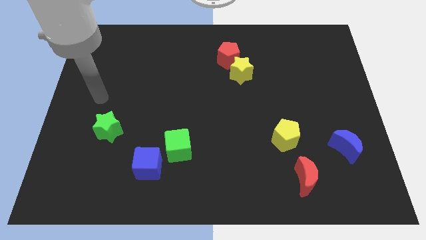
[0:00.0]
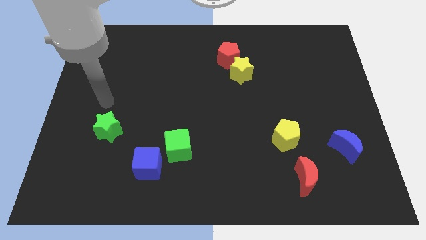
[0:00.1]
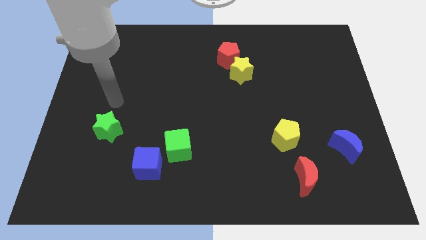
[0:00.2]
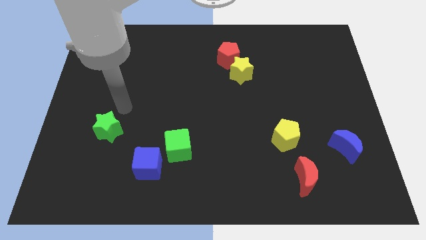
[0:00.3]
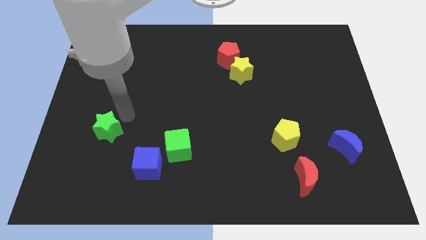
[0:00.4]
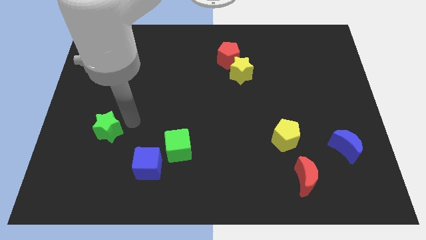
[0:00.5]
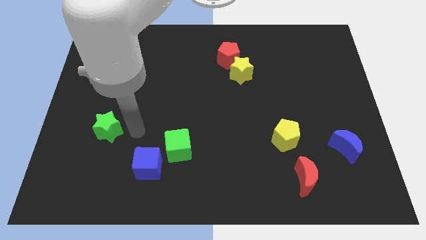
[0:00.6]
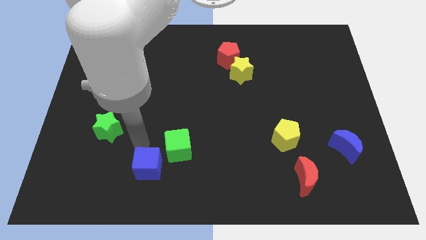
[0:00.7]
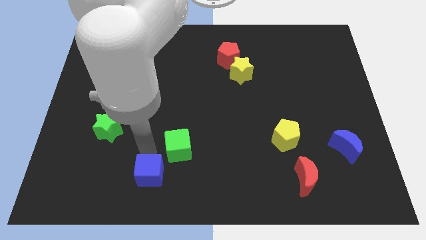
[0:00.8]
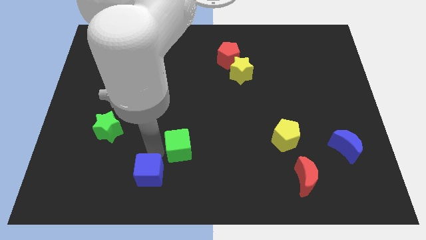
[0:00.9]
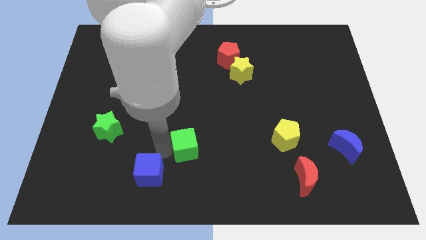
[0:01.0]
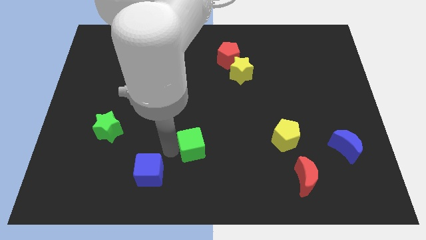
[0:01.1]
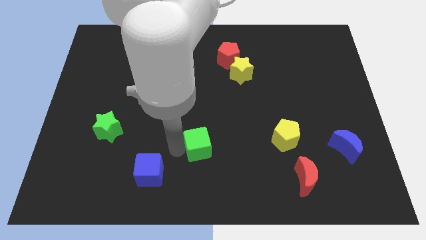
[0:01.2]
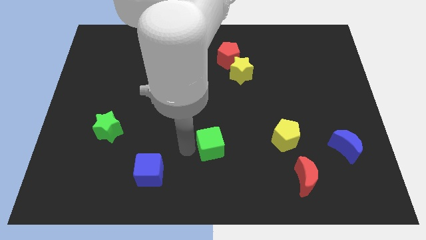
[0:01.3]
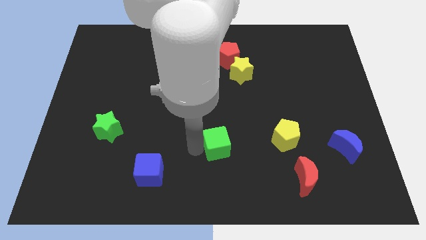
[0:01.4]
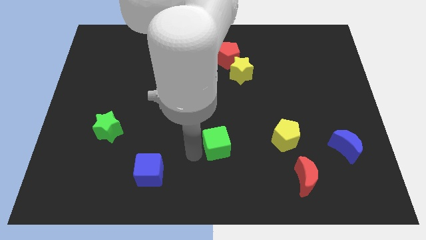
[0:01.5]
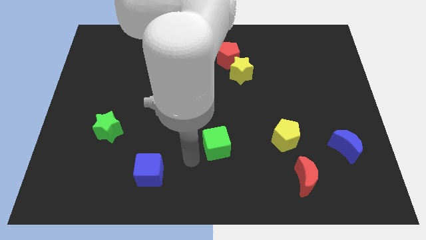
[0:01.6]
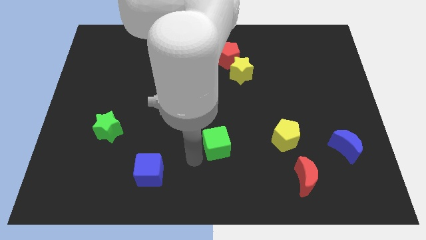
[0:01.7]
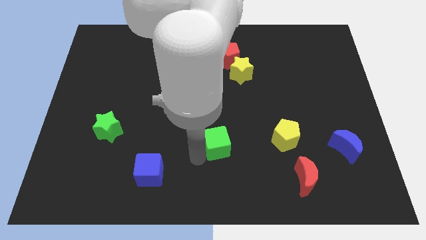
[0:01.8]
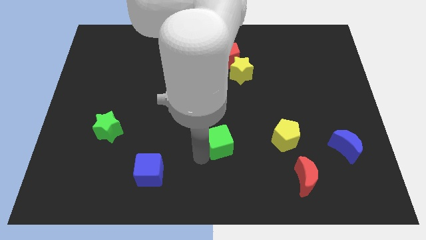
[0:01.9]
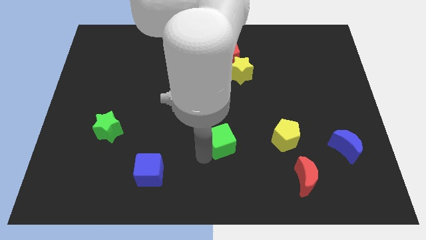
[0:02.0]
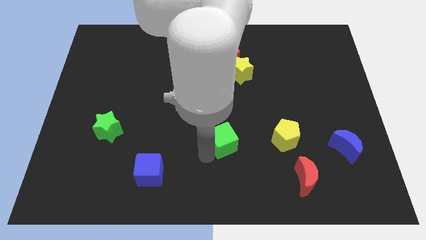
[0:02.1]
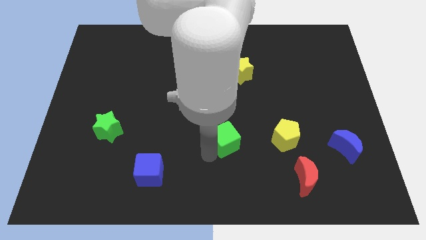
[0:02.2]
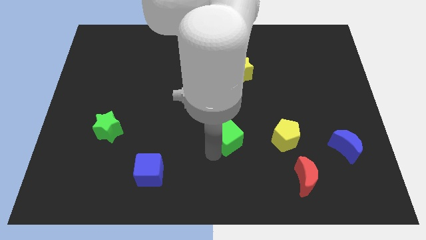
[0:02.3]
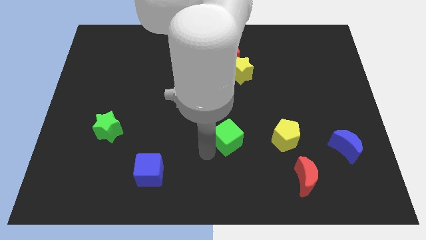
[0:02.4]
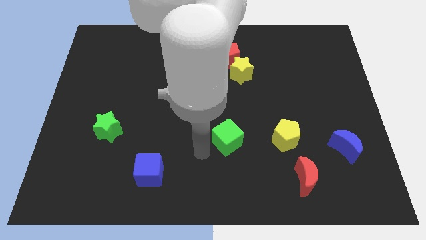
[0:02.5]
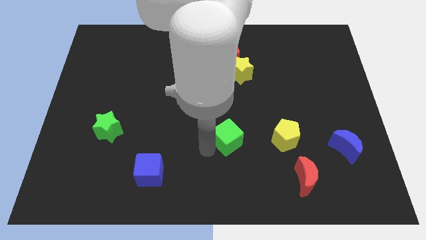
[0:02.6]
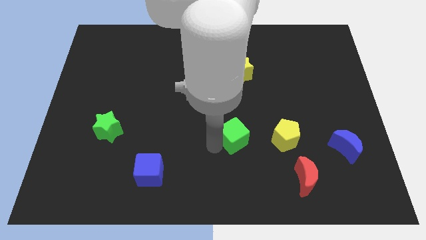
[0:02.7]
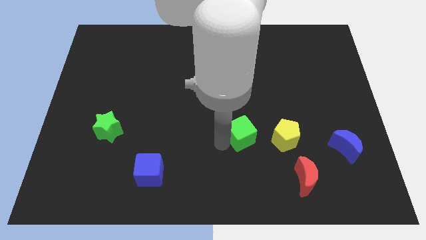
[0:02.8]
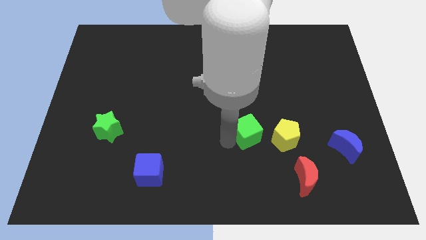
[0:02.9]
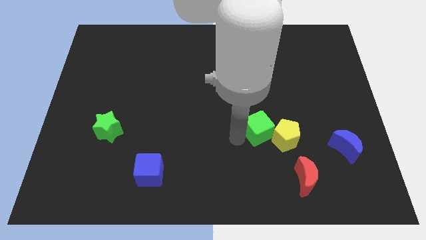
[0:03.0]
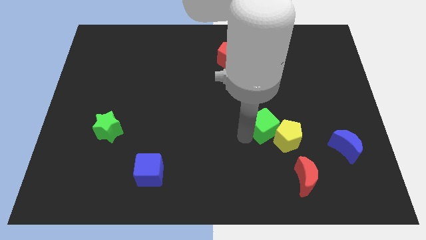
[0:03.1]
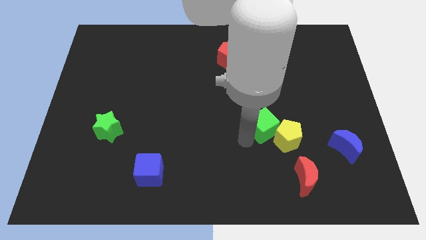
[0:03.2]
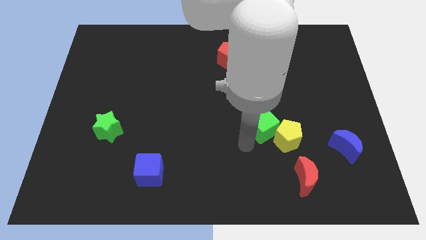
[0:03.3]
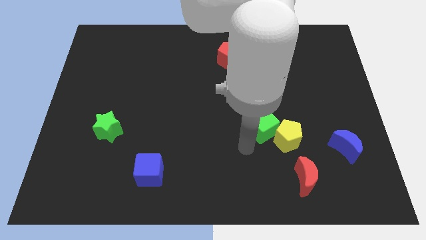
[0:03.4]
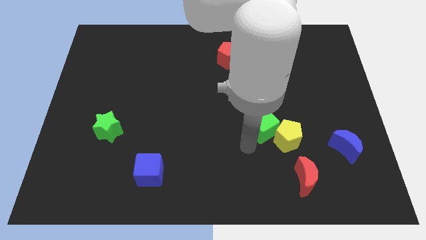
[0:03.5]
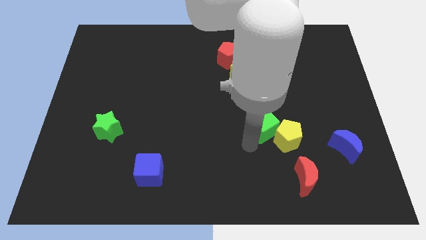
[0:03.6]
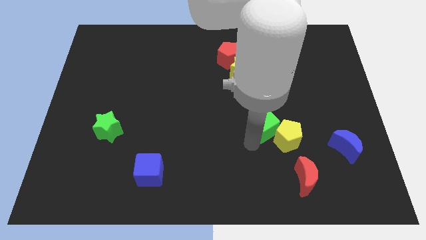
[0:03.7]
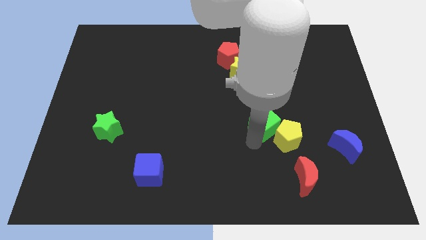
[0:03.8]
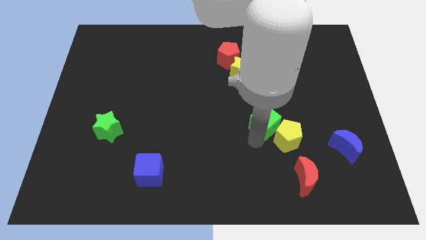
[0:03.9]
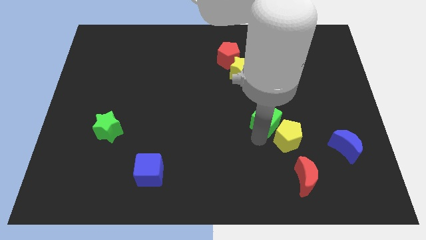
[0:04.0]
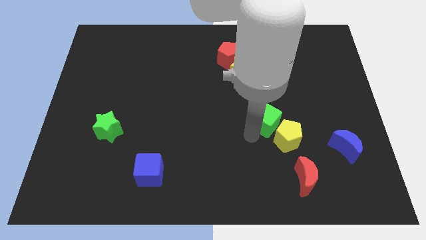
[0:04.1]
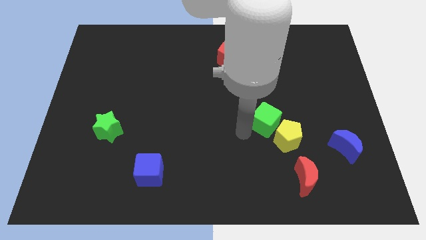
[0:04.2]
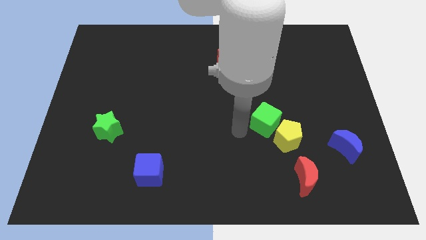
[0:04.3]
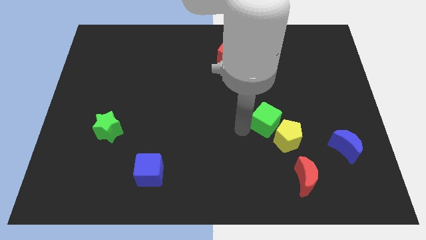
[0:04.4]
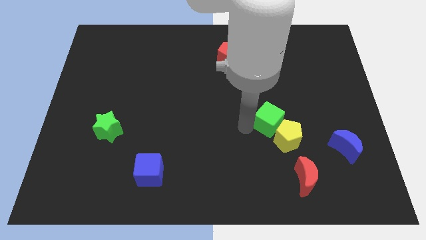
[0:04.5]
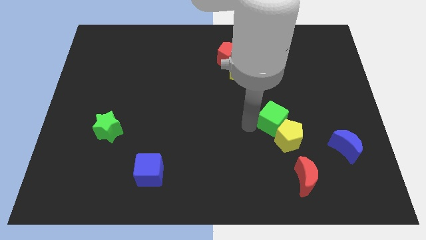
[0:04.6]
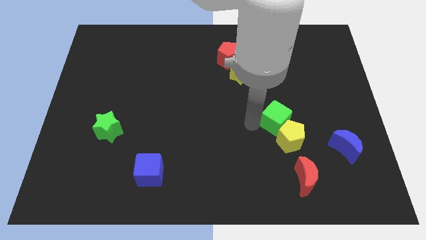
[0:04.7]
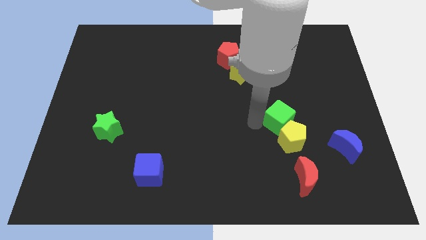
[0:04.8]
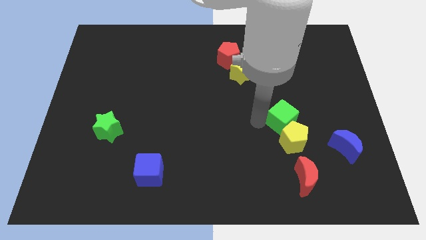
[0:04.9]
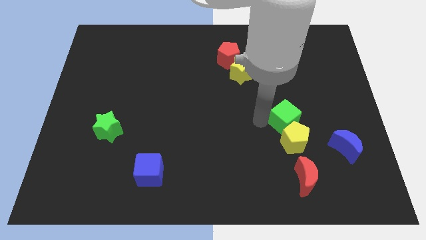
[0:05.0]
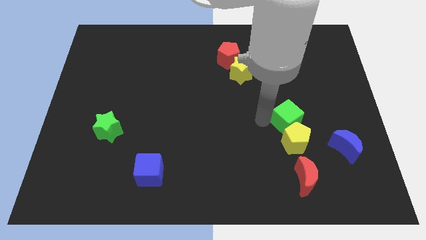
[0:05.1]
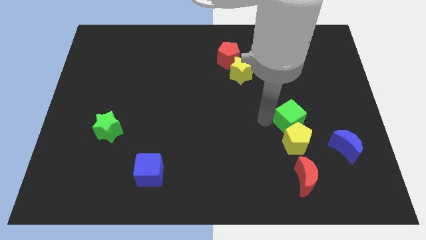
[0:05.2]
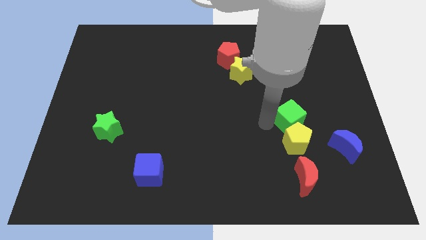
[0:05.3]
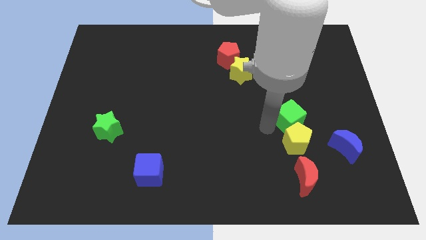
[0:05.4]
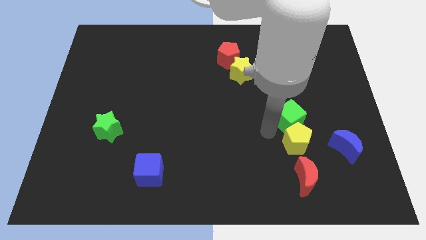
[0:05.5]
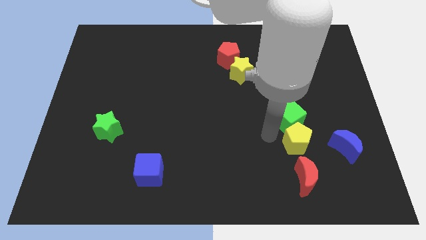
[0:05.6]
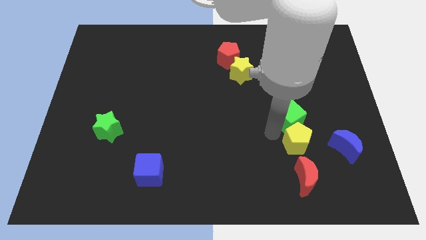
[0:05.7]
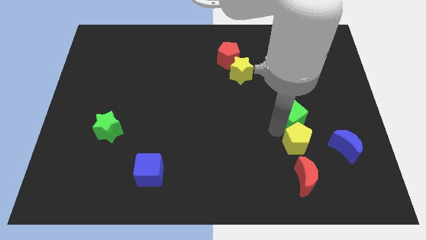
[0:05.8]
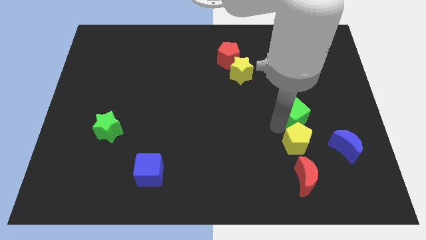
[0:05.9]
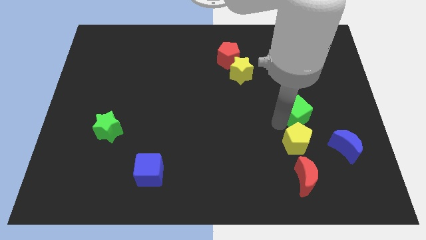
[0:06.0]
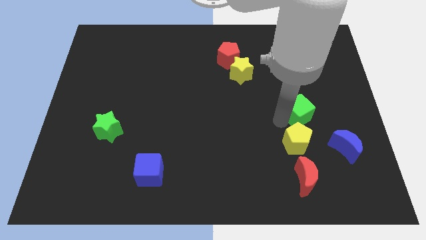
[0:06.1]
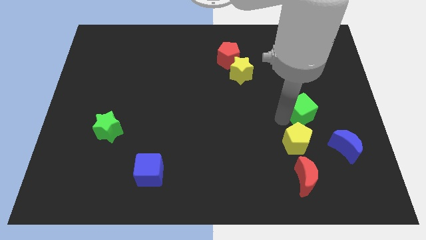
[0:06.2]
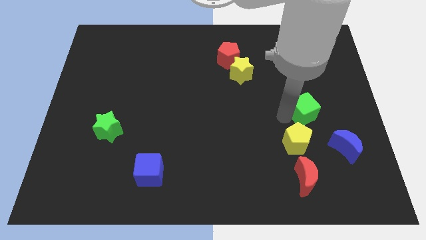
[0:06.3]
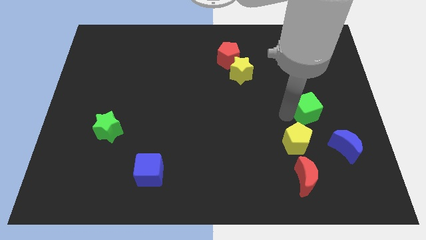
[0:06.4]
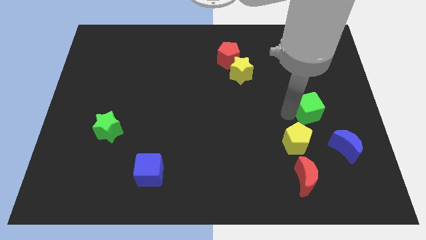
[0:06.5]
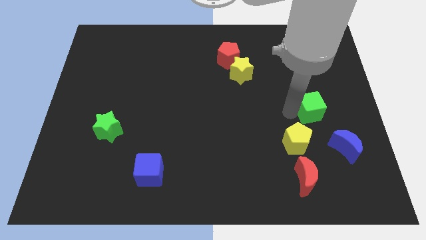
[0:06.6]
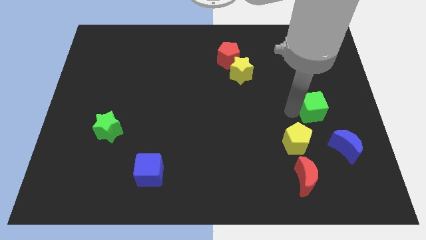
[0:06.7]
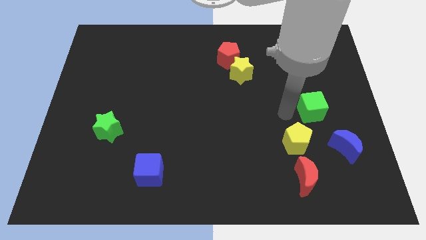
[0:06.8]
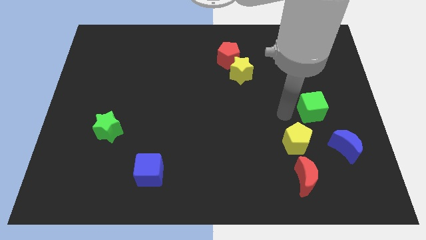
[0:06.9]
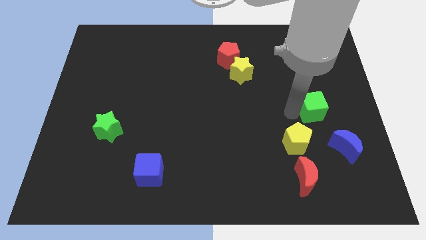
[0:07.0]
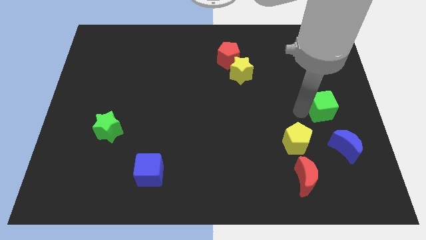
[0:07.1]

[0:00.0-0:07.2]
put the green cube to the right side

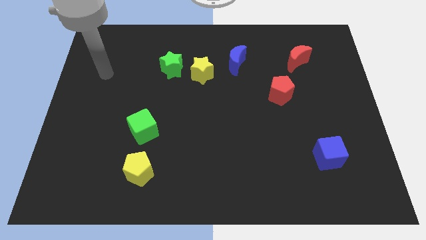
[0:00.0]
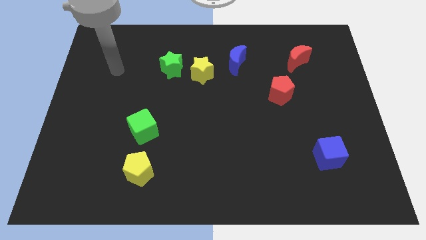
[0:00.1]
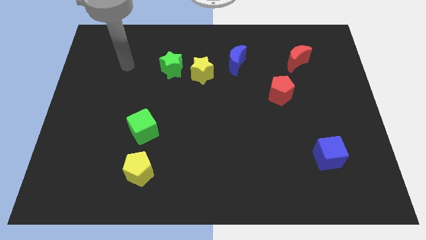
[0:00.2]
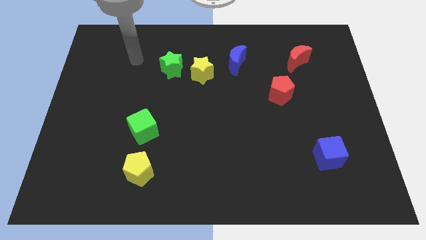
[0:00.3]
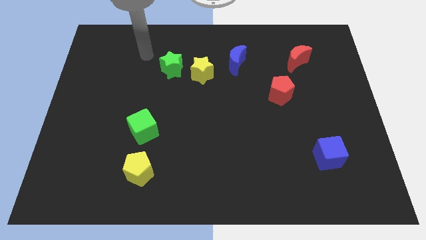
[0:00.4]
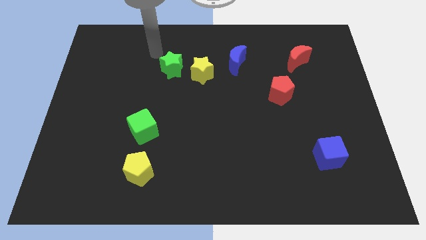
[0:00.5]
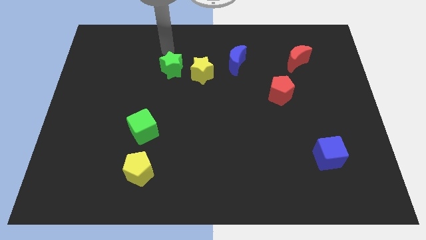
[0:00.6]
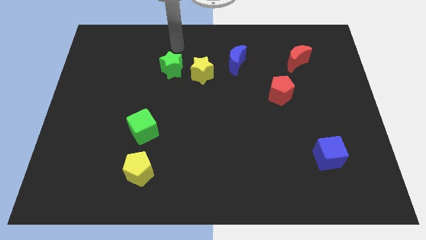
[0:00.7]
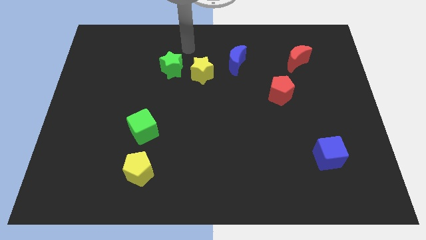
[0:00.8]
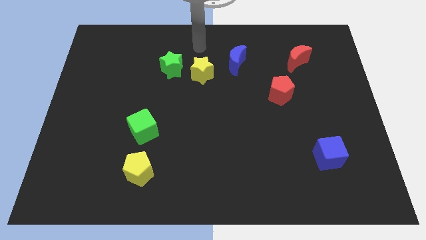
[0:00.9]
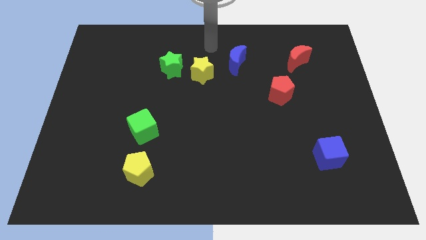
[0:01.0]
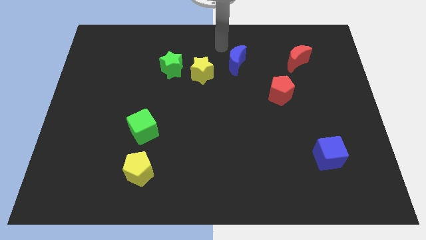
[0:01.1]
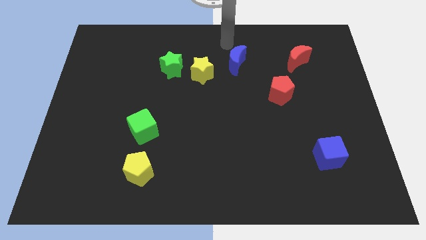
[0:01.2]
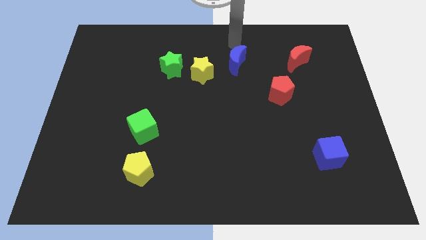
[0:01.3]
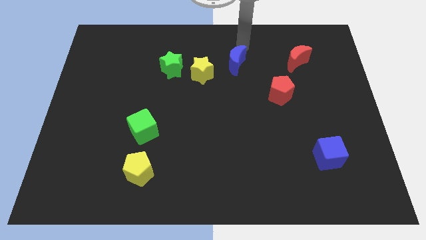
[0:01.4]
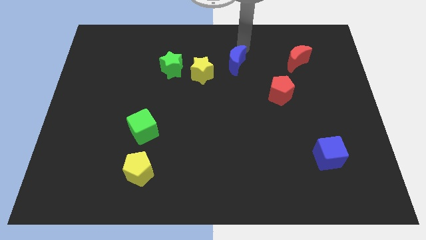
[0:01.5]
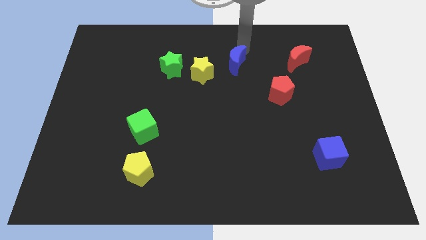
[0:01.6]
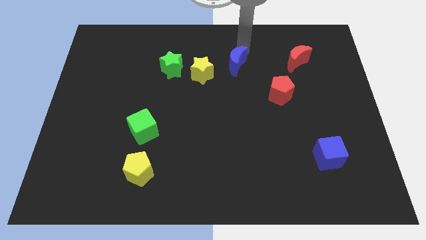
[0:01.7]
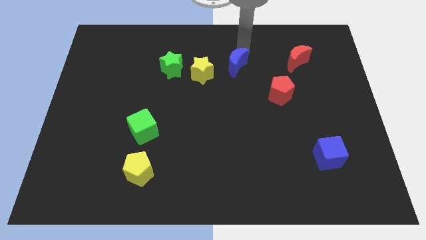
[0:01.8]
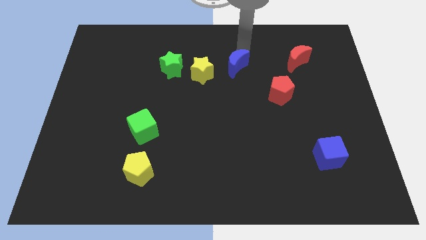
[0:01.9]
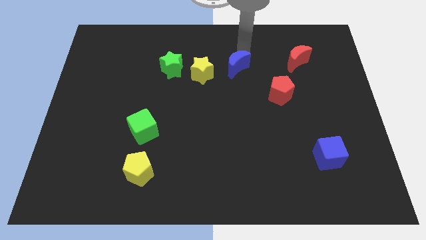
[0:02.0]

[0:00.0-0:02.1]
move the blue moon to the middle
